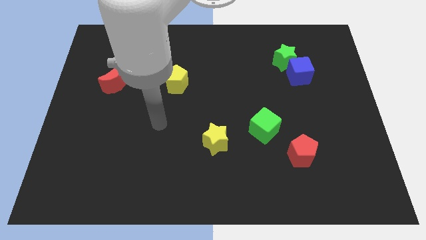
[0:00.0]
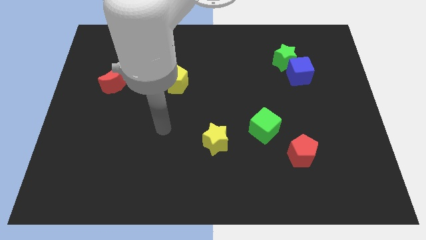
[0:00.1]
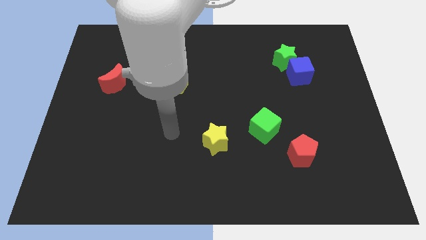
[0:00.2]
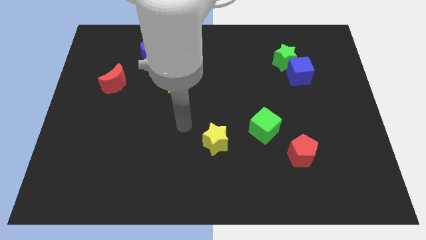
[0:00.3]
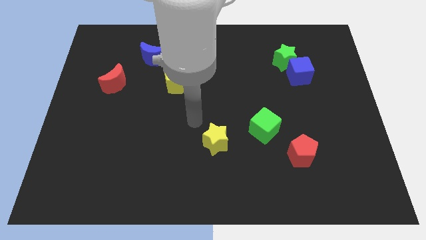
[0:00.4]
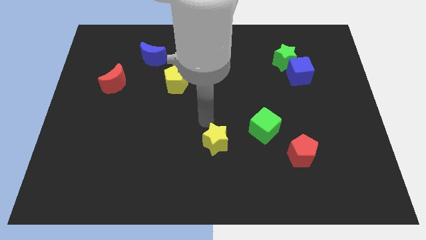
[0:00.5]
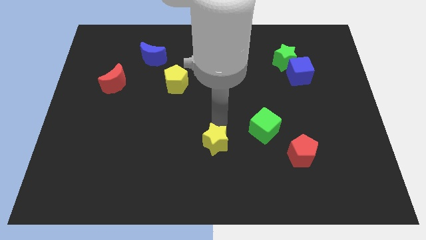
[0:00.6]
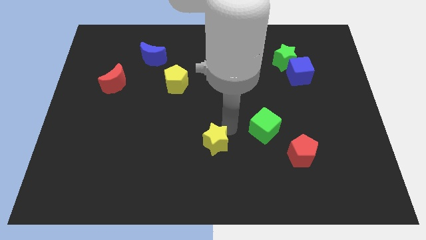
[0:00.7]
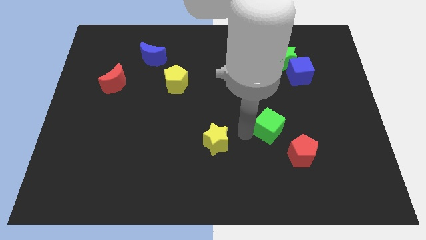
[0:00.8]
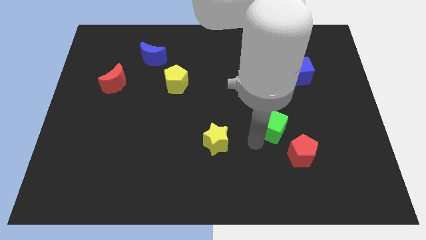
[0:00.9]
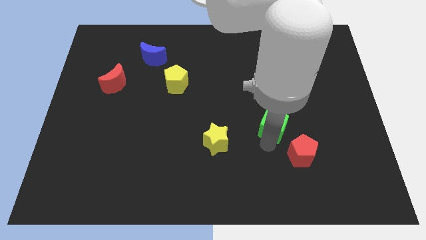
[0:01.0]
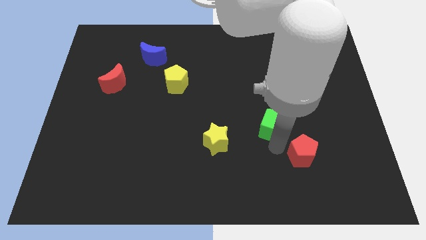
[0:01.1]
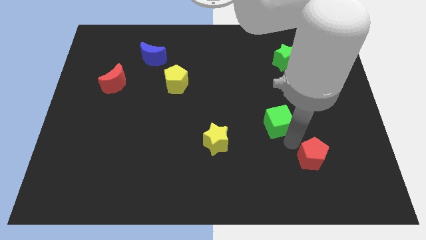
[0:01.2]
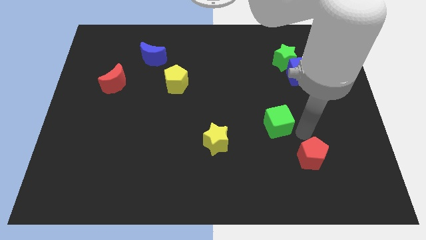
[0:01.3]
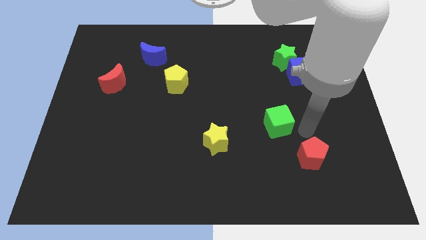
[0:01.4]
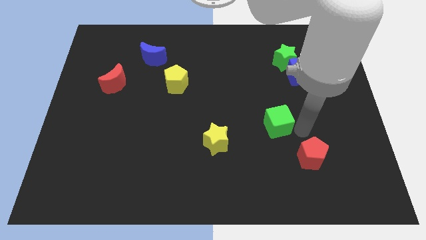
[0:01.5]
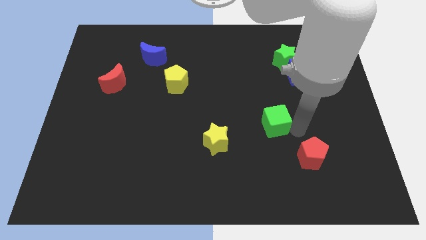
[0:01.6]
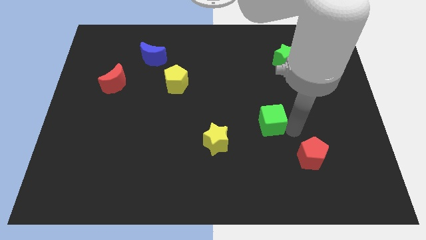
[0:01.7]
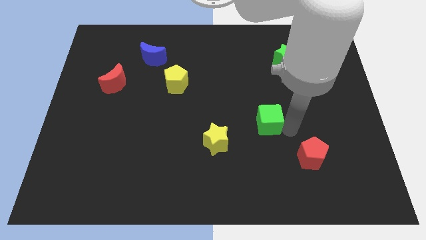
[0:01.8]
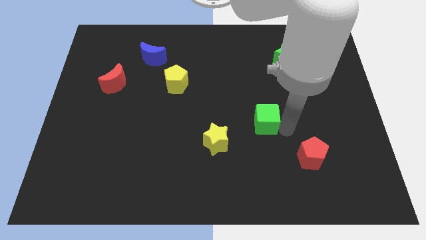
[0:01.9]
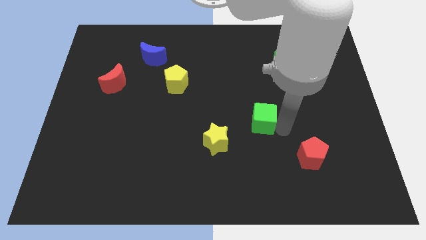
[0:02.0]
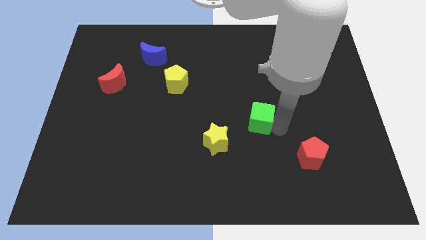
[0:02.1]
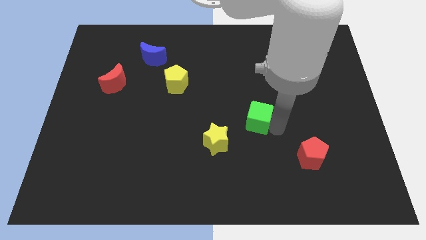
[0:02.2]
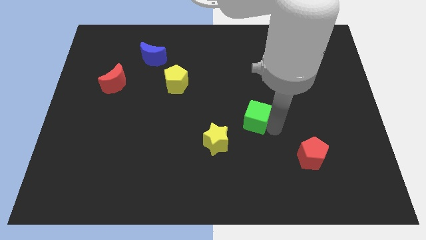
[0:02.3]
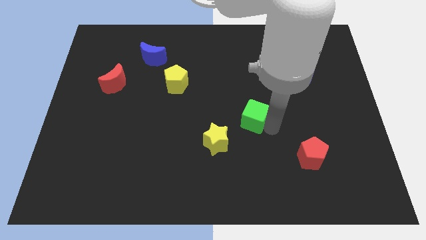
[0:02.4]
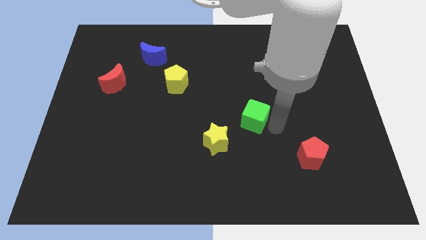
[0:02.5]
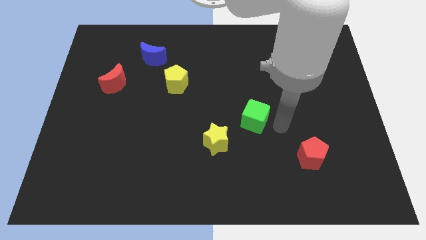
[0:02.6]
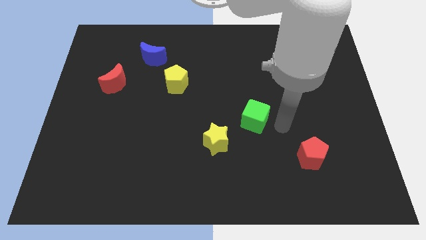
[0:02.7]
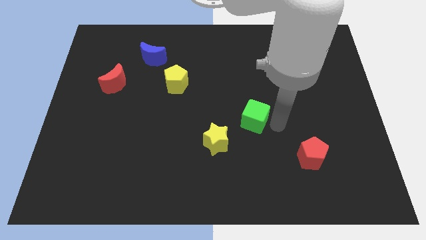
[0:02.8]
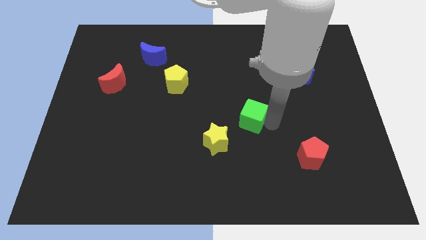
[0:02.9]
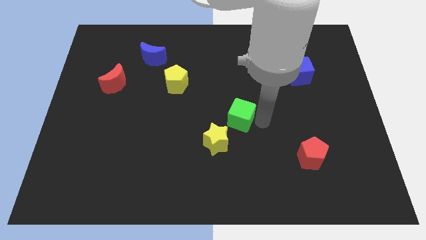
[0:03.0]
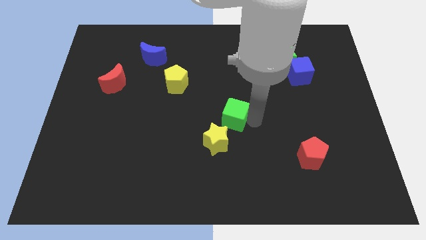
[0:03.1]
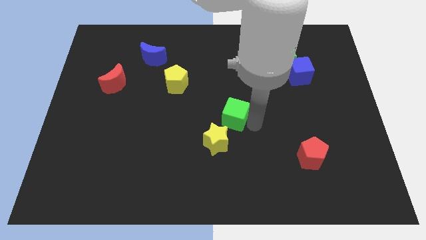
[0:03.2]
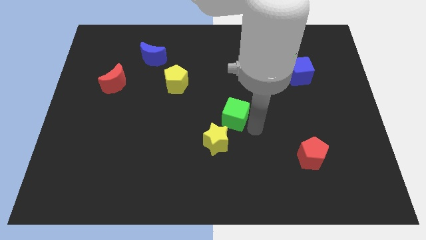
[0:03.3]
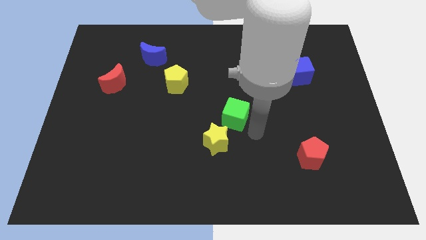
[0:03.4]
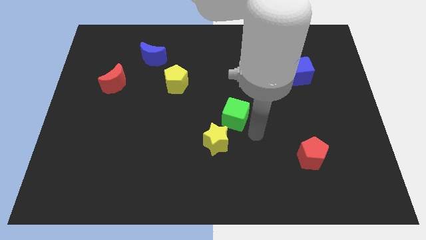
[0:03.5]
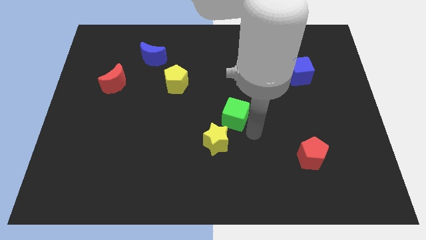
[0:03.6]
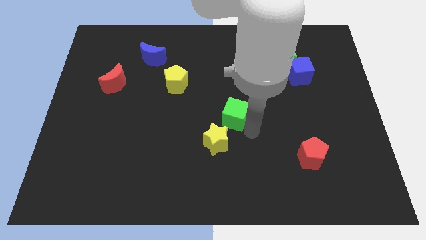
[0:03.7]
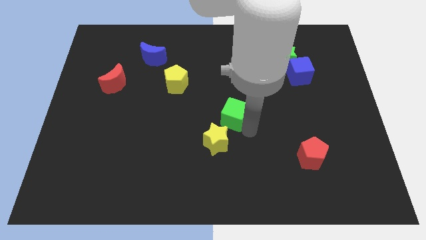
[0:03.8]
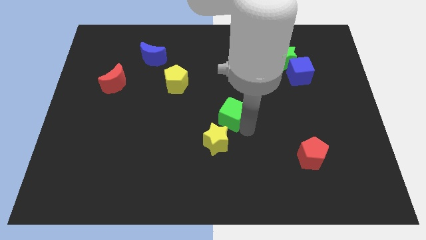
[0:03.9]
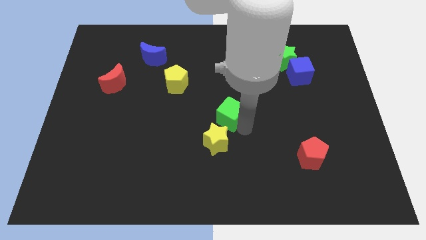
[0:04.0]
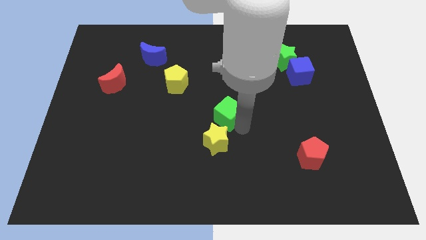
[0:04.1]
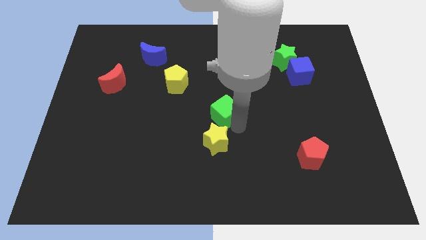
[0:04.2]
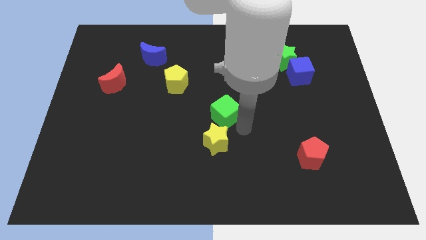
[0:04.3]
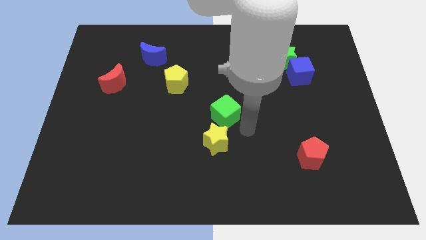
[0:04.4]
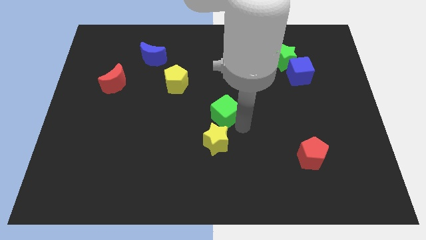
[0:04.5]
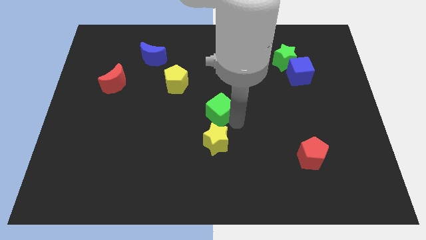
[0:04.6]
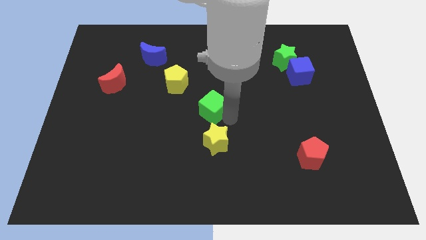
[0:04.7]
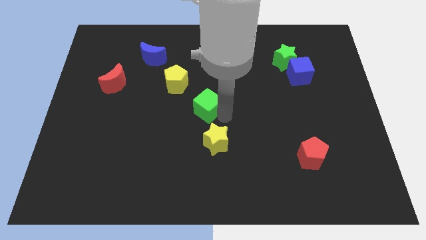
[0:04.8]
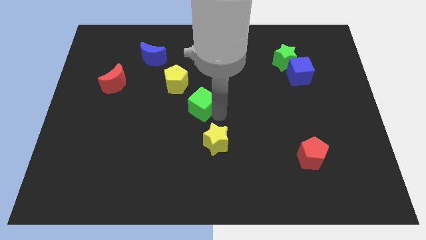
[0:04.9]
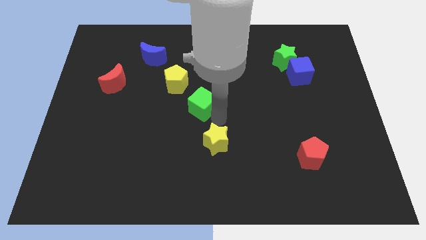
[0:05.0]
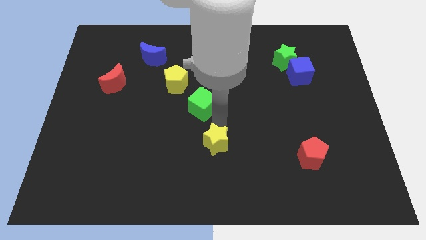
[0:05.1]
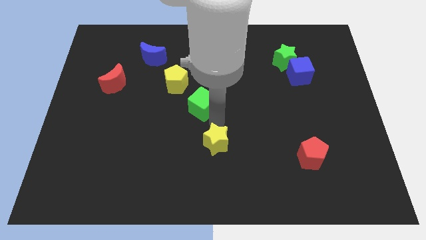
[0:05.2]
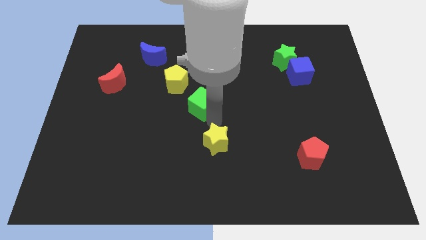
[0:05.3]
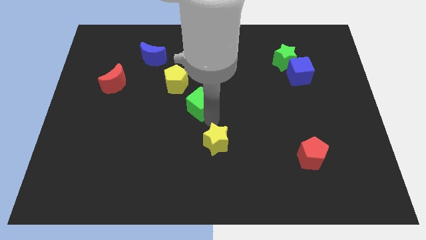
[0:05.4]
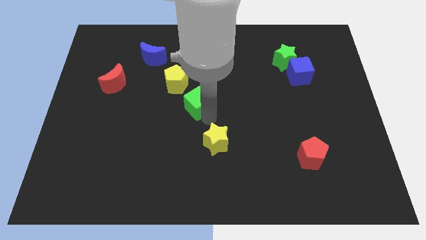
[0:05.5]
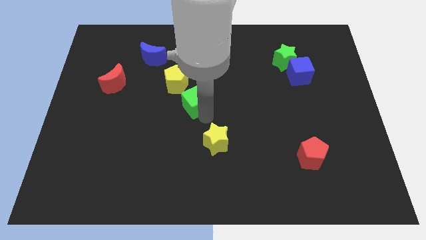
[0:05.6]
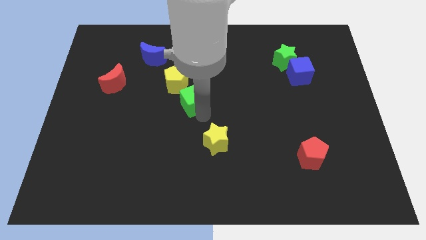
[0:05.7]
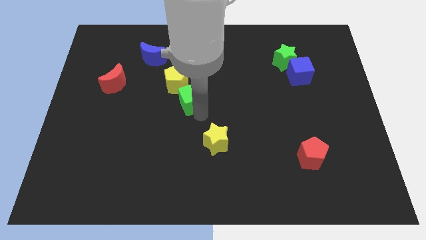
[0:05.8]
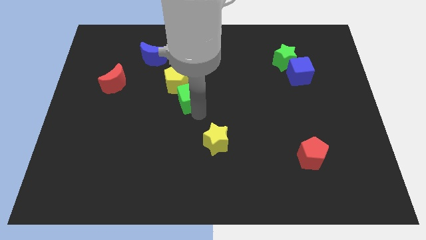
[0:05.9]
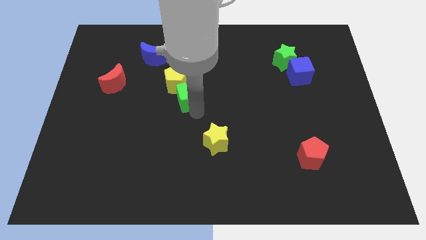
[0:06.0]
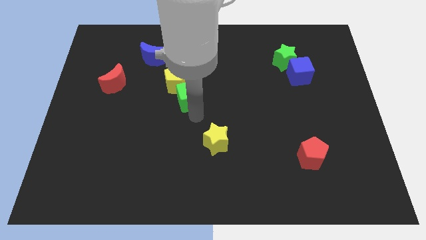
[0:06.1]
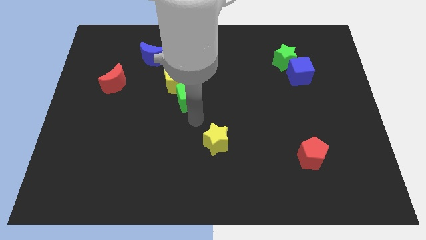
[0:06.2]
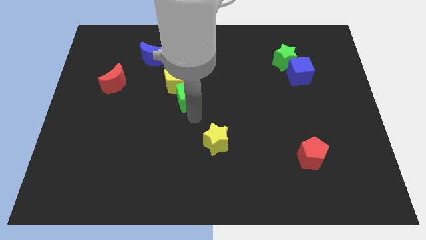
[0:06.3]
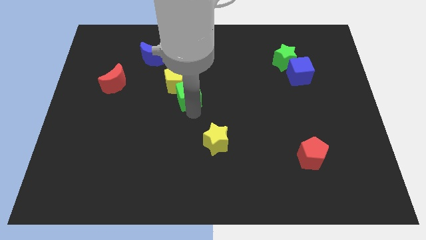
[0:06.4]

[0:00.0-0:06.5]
move the green cube towards the yellow pentagon

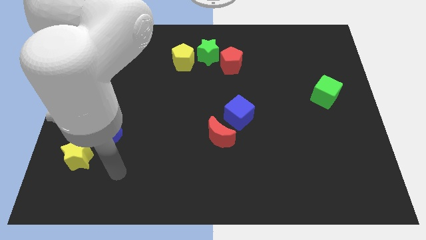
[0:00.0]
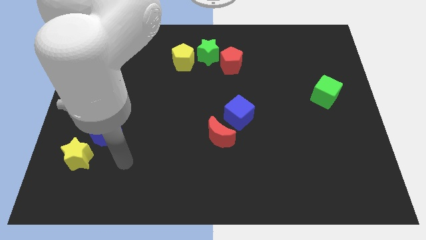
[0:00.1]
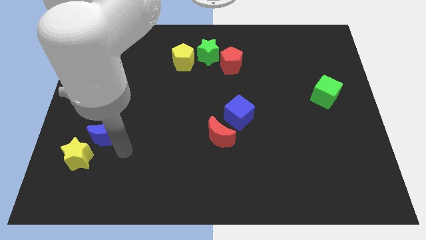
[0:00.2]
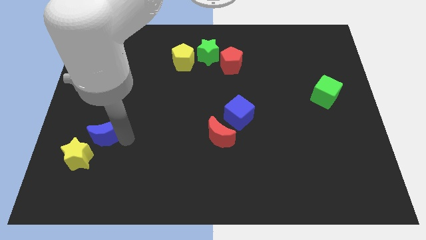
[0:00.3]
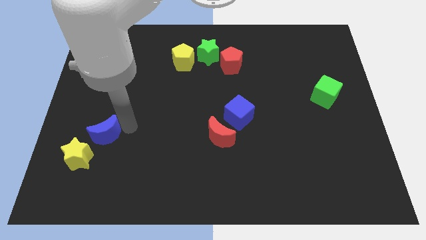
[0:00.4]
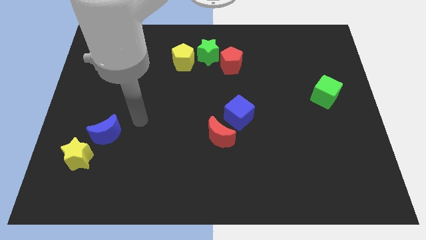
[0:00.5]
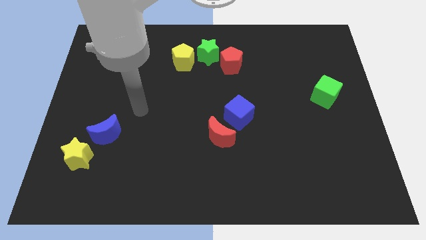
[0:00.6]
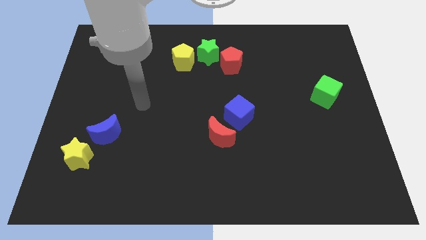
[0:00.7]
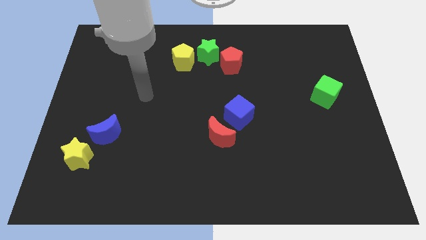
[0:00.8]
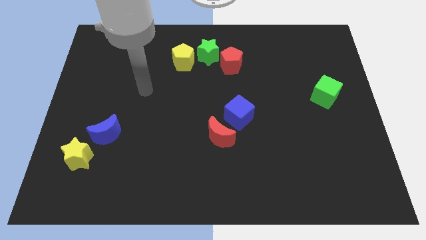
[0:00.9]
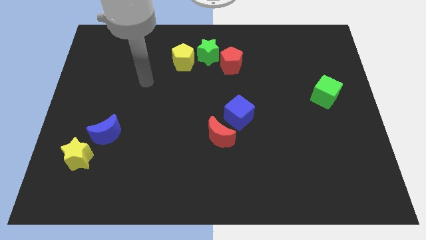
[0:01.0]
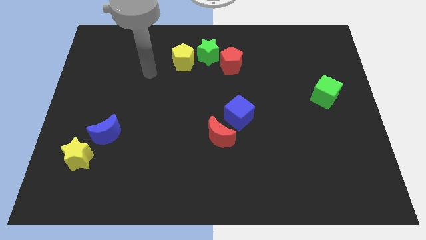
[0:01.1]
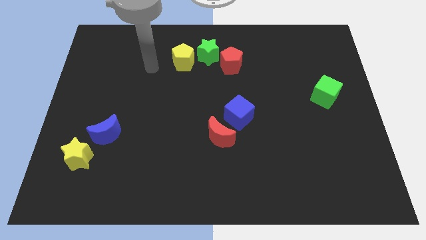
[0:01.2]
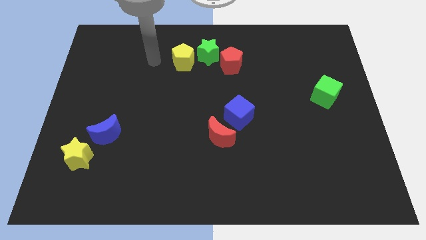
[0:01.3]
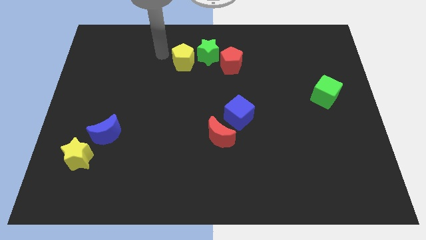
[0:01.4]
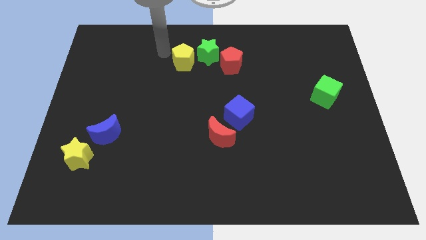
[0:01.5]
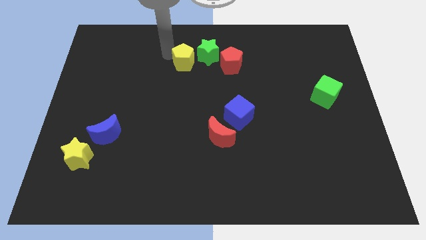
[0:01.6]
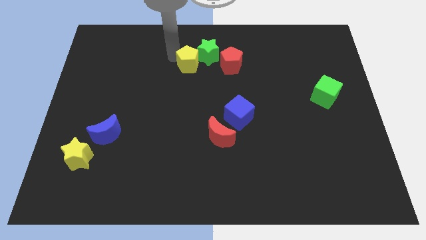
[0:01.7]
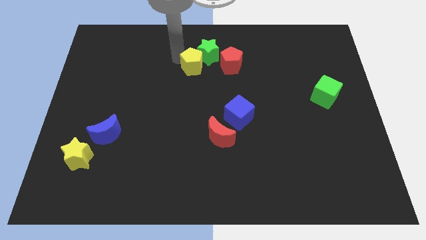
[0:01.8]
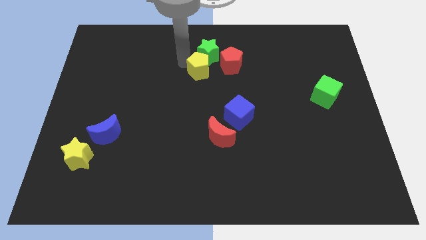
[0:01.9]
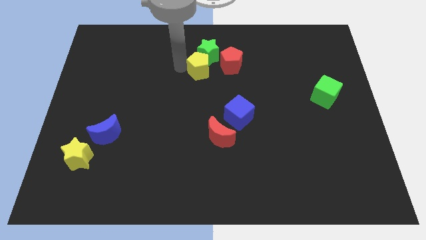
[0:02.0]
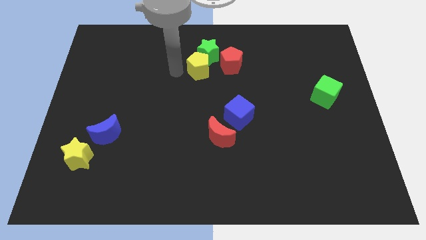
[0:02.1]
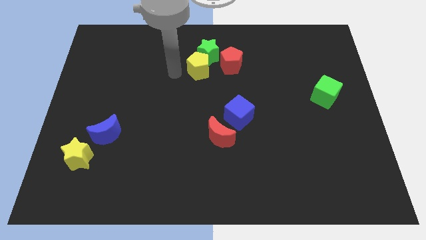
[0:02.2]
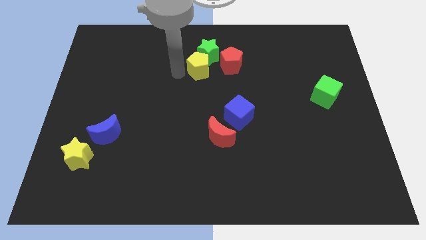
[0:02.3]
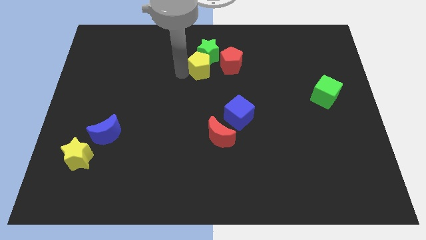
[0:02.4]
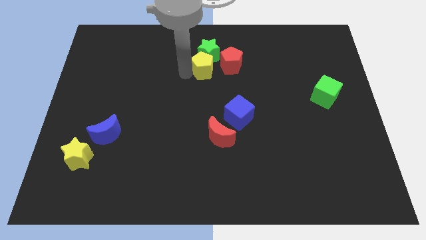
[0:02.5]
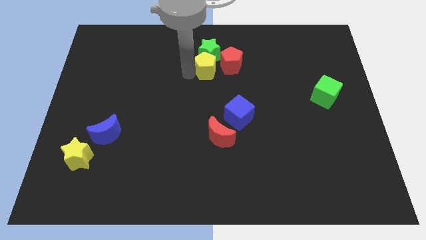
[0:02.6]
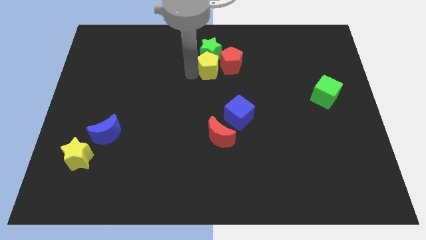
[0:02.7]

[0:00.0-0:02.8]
put the yellow pentagon close to the red pentagon

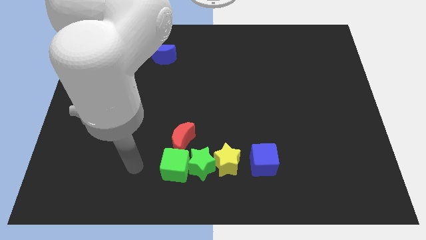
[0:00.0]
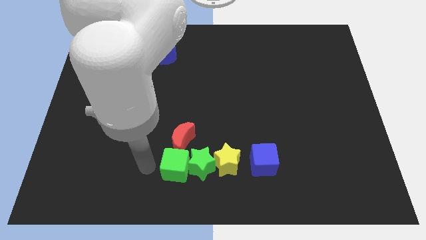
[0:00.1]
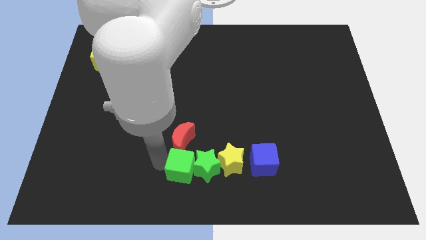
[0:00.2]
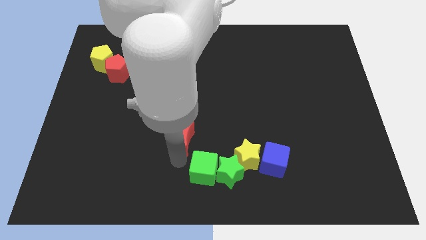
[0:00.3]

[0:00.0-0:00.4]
move the yellow star close to the blue cube
